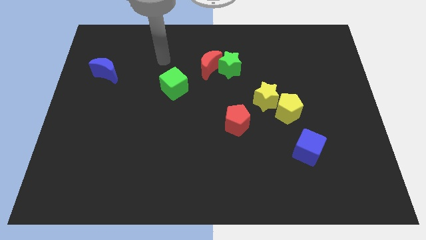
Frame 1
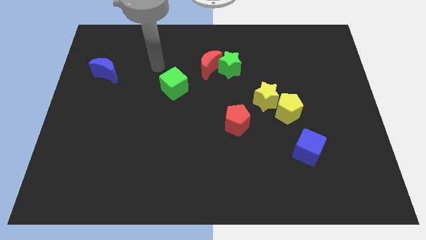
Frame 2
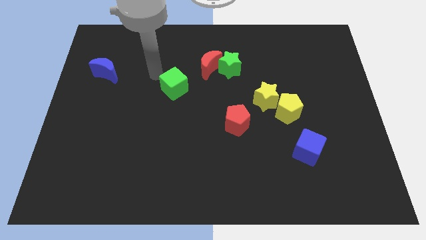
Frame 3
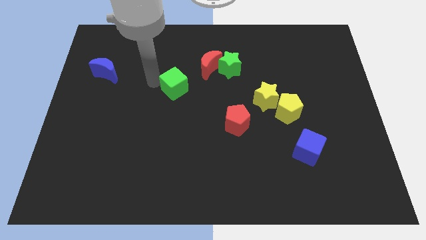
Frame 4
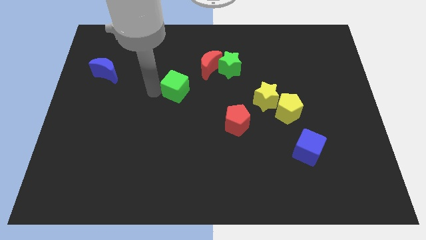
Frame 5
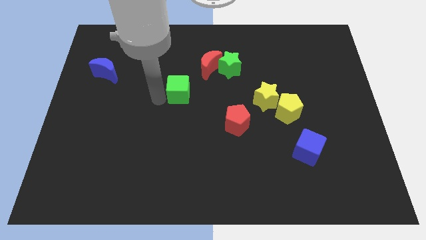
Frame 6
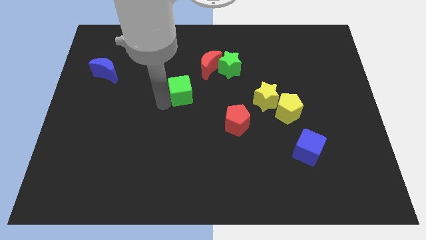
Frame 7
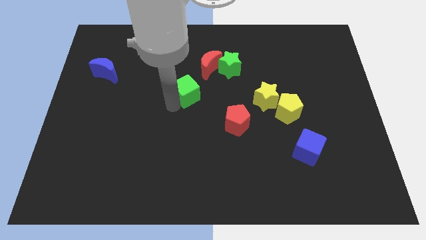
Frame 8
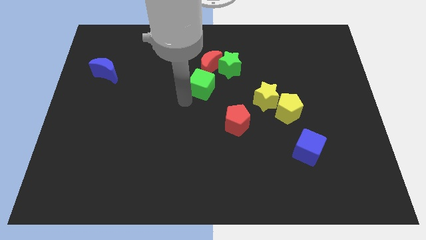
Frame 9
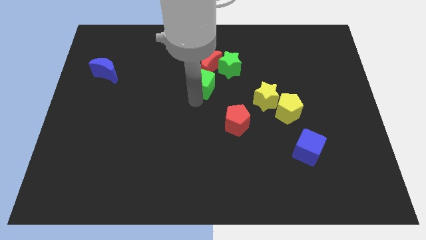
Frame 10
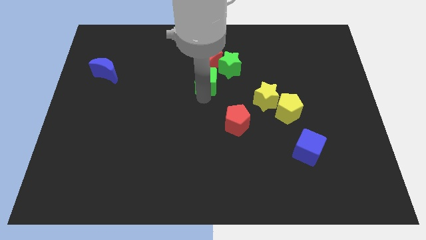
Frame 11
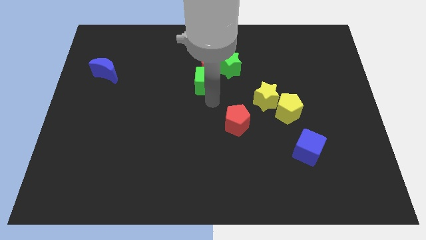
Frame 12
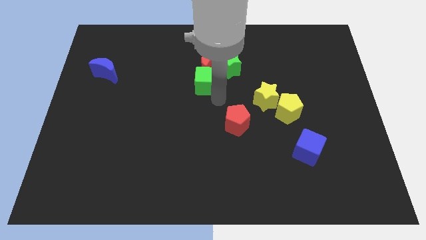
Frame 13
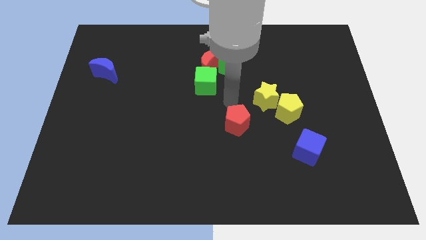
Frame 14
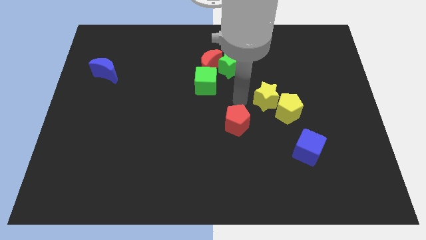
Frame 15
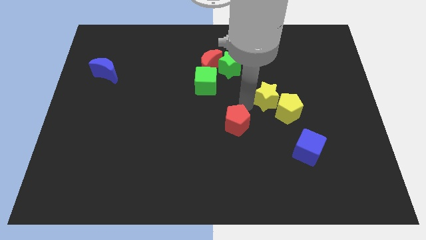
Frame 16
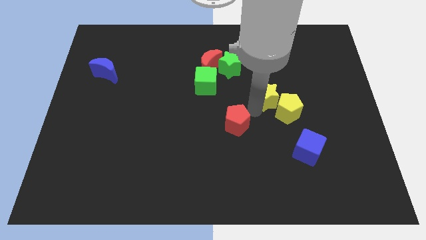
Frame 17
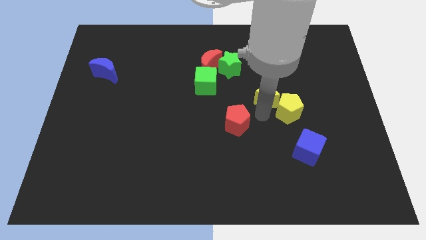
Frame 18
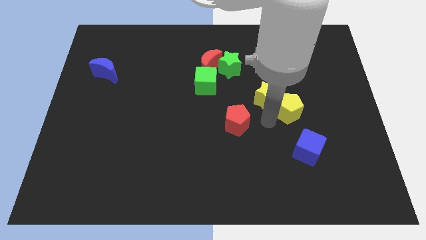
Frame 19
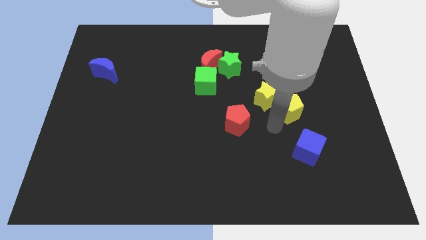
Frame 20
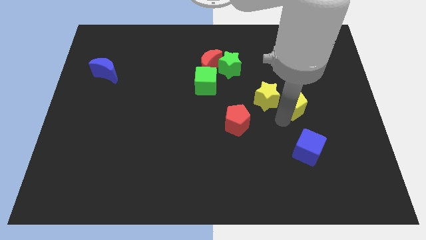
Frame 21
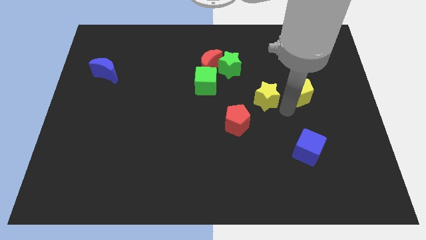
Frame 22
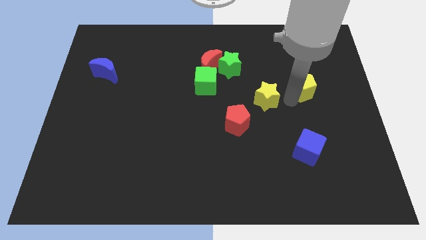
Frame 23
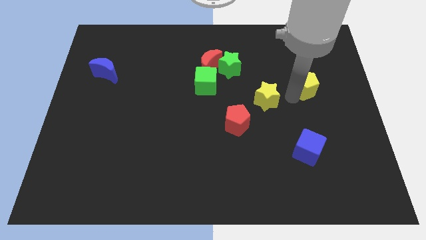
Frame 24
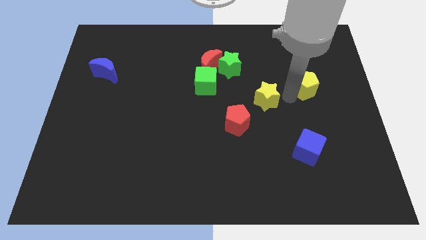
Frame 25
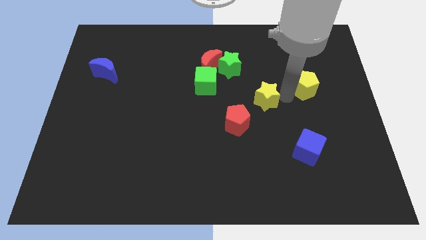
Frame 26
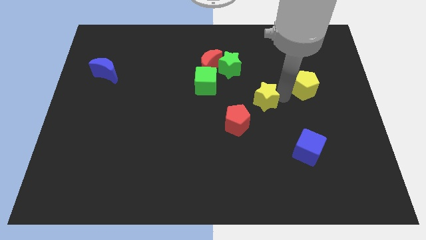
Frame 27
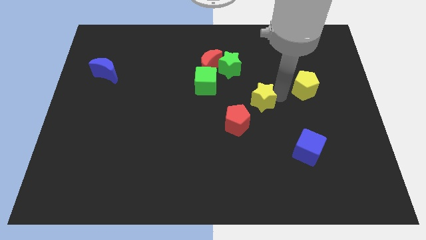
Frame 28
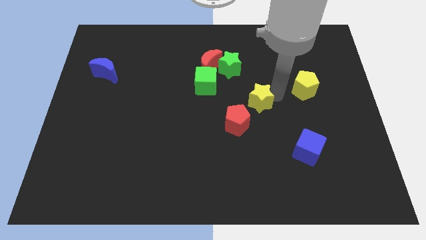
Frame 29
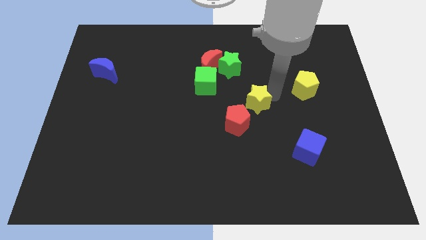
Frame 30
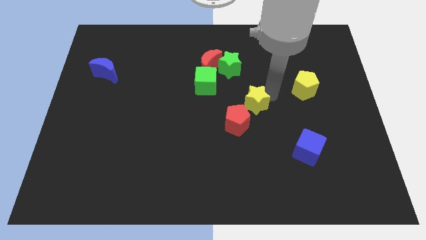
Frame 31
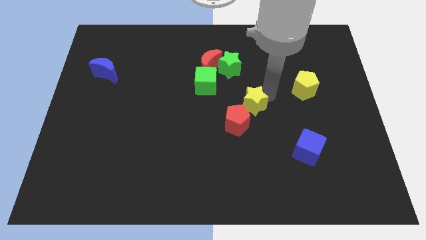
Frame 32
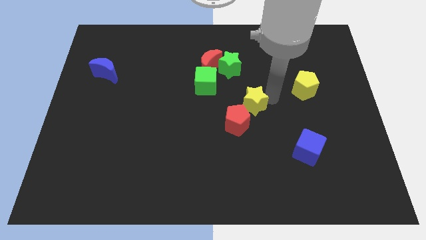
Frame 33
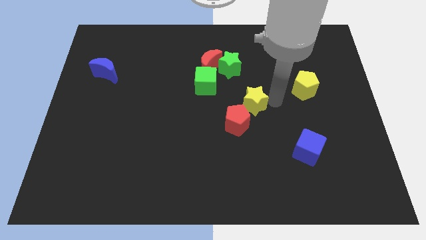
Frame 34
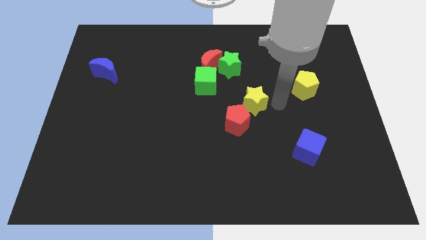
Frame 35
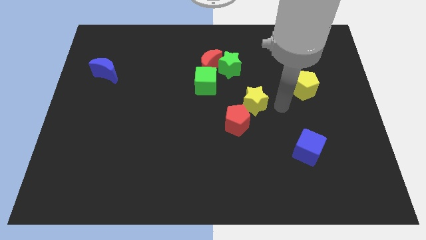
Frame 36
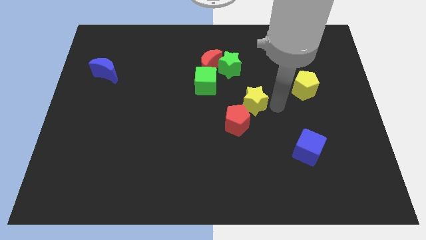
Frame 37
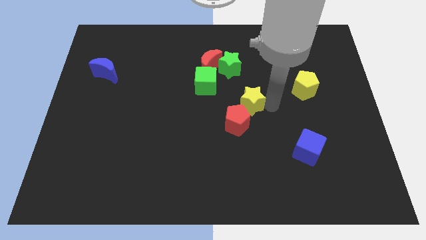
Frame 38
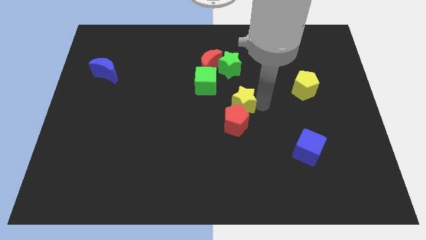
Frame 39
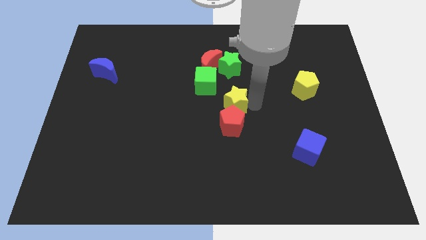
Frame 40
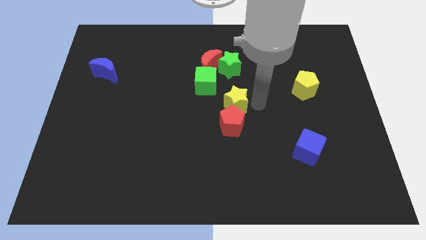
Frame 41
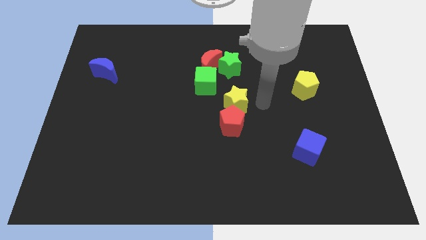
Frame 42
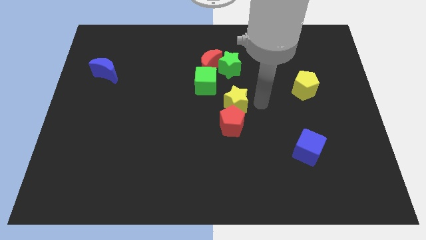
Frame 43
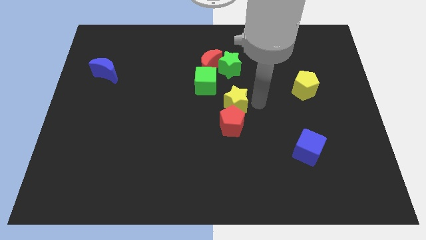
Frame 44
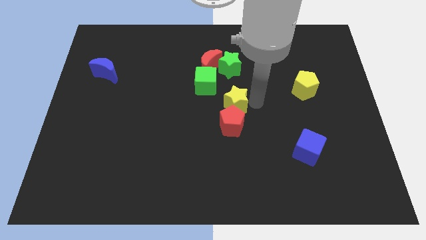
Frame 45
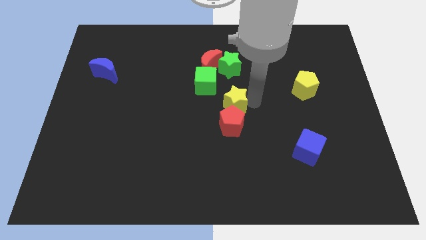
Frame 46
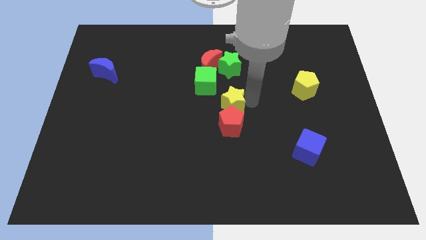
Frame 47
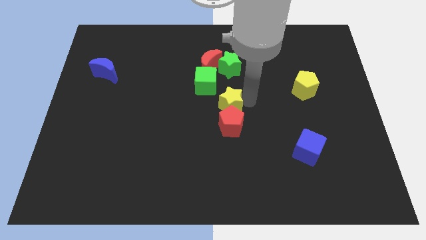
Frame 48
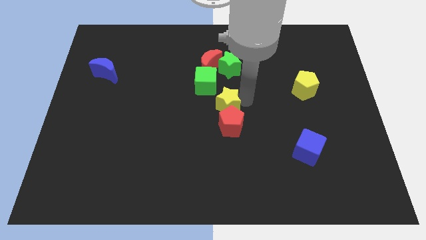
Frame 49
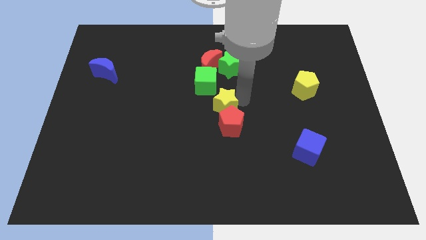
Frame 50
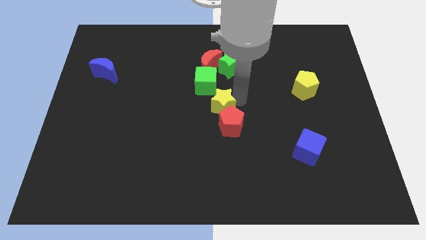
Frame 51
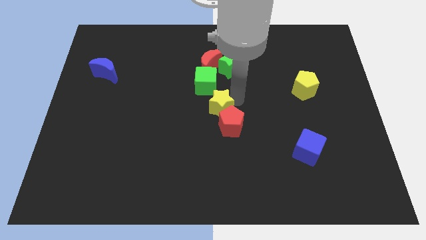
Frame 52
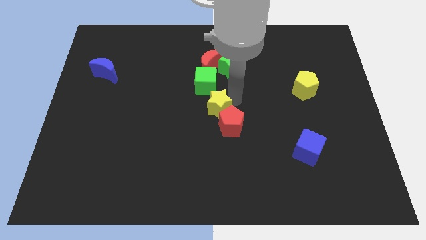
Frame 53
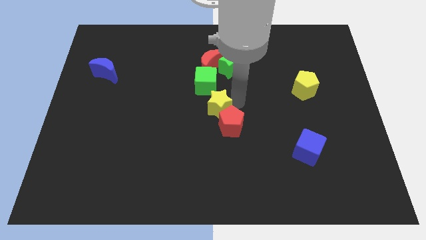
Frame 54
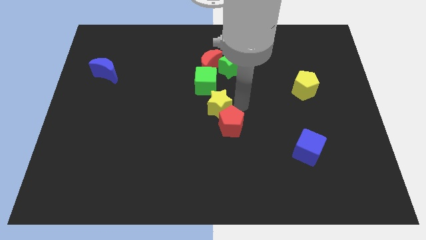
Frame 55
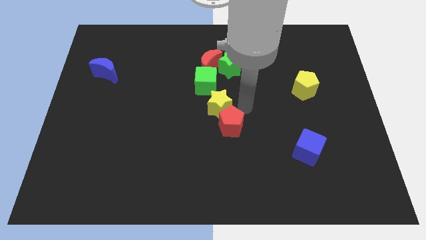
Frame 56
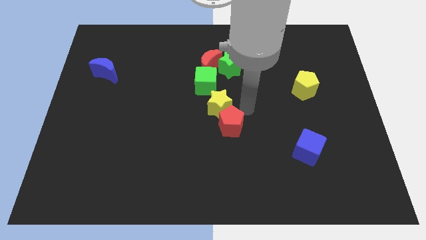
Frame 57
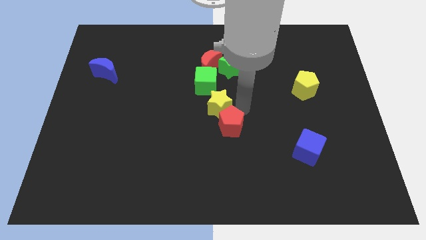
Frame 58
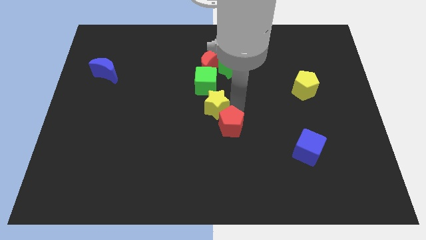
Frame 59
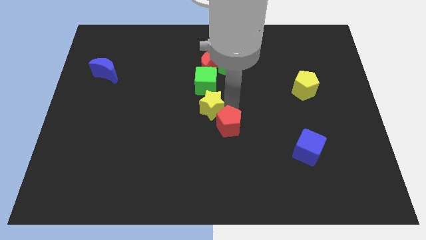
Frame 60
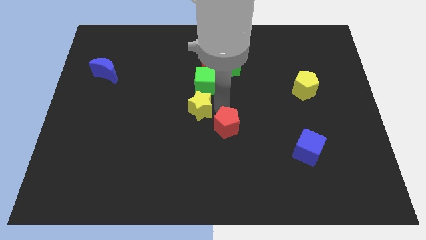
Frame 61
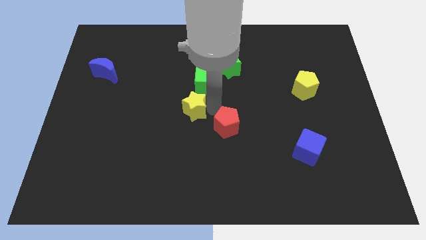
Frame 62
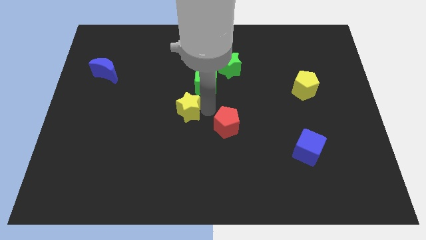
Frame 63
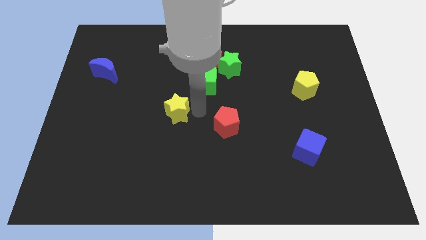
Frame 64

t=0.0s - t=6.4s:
move the yellow star to the left

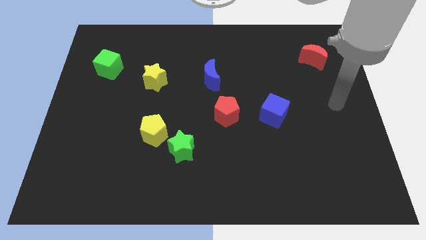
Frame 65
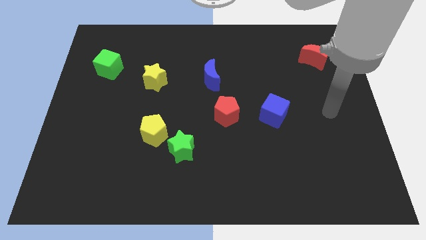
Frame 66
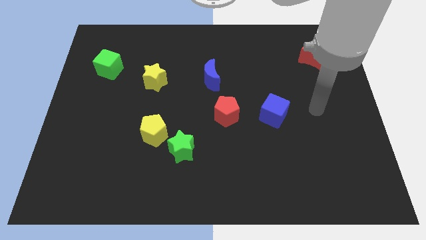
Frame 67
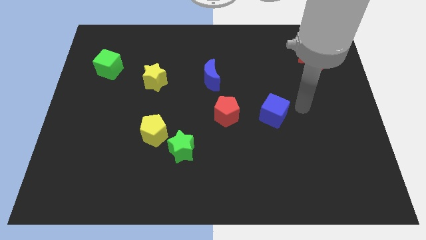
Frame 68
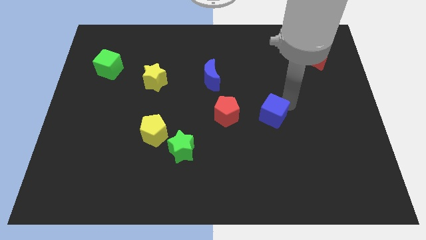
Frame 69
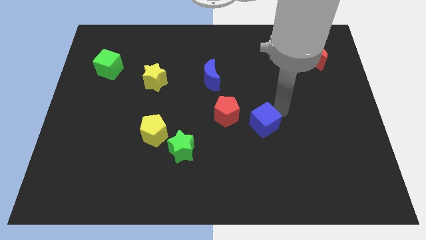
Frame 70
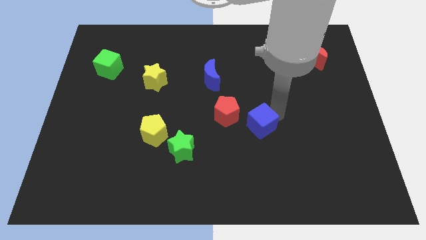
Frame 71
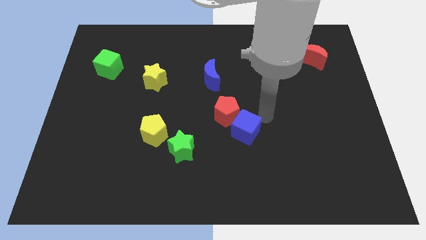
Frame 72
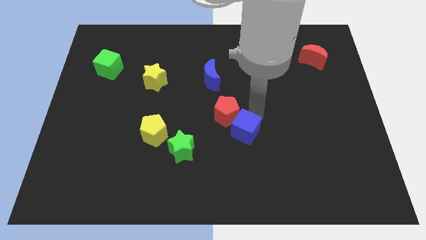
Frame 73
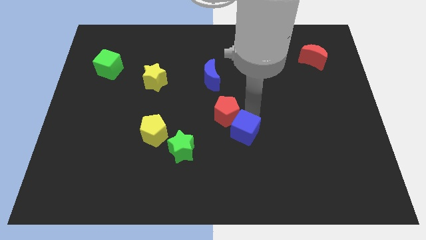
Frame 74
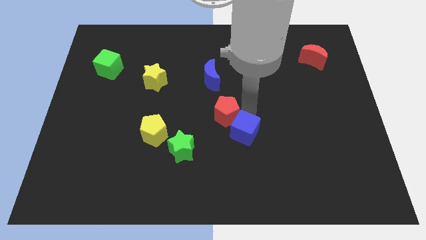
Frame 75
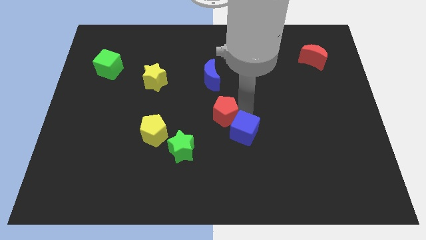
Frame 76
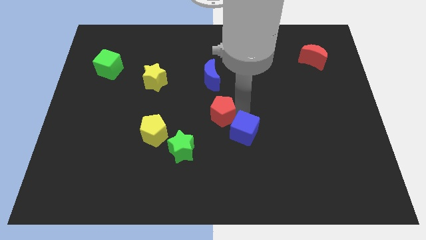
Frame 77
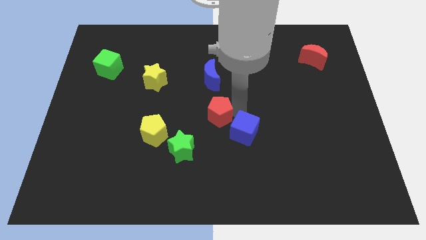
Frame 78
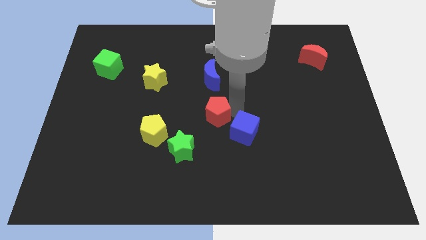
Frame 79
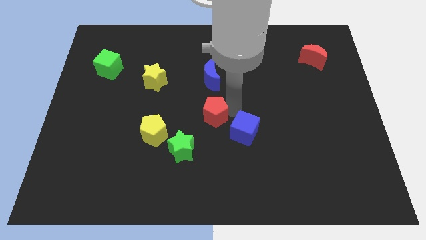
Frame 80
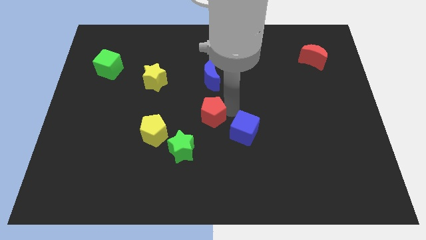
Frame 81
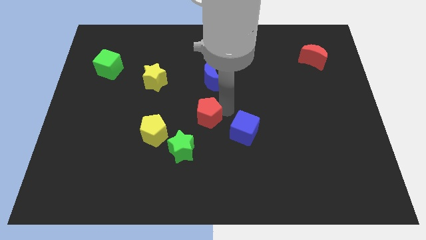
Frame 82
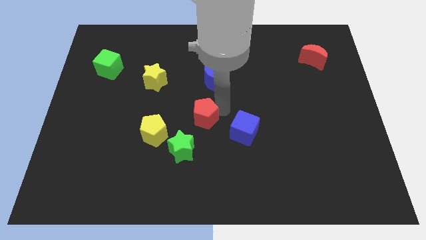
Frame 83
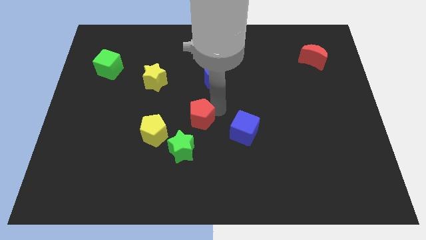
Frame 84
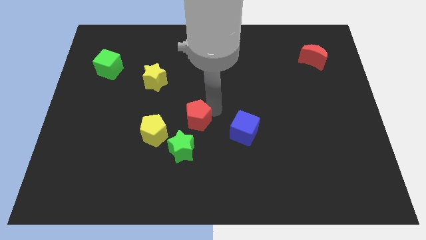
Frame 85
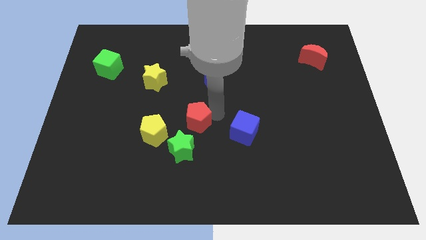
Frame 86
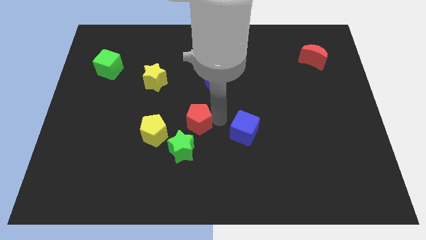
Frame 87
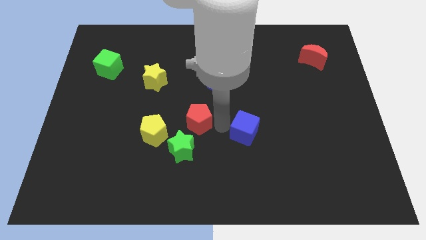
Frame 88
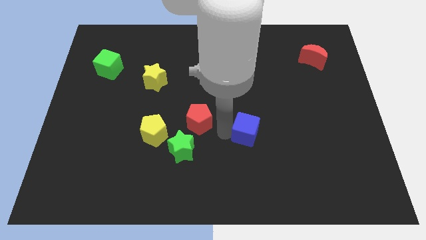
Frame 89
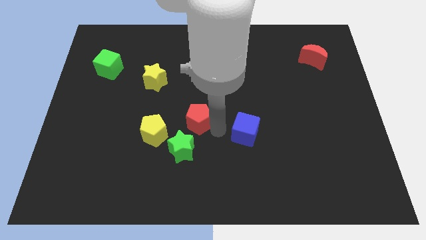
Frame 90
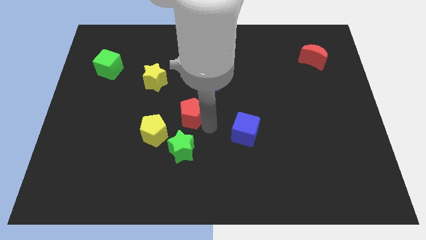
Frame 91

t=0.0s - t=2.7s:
move the red pentagon a little left
